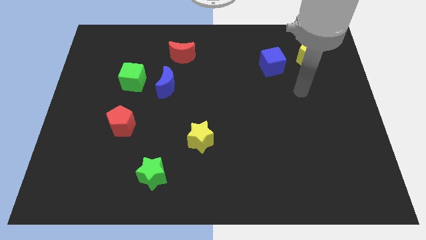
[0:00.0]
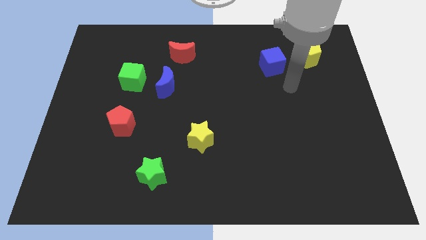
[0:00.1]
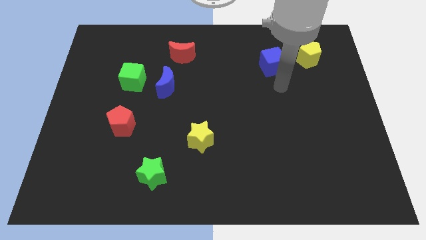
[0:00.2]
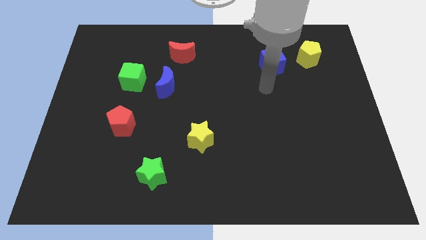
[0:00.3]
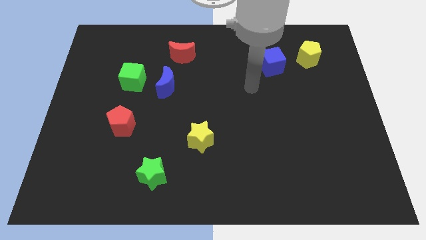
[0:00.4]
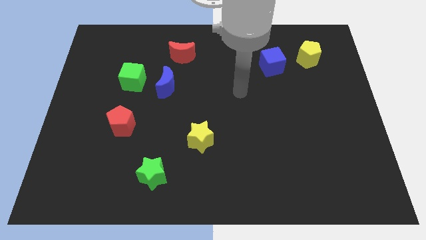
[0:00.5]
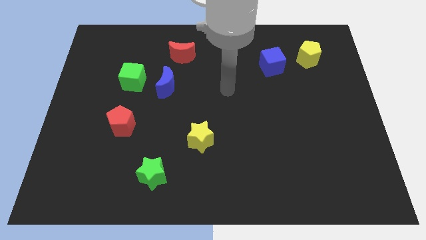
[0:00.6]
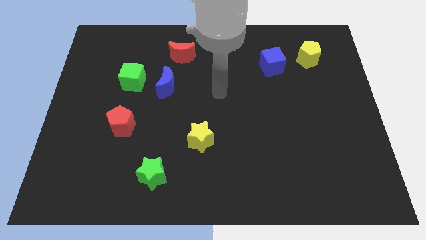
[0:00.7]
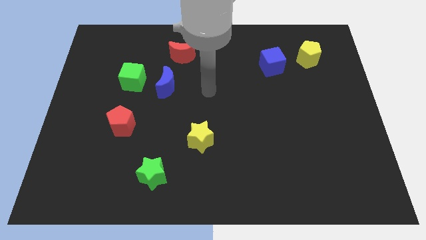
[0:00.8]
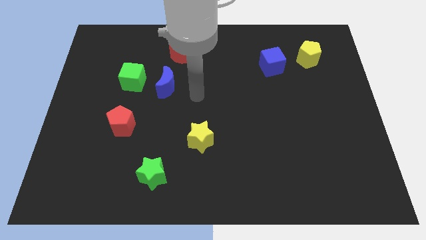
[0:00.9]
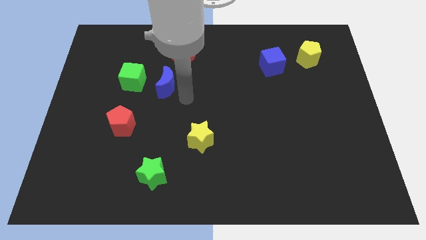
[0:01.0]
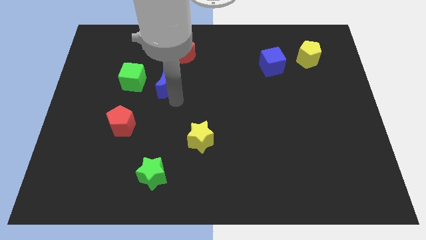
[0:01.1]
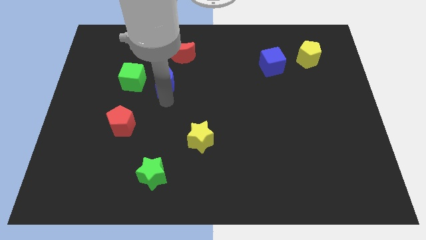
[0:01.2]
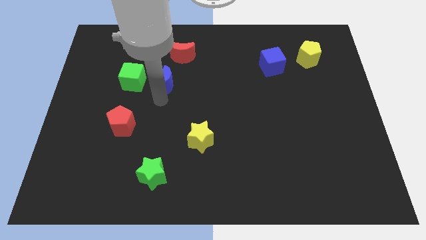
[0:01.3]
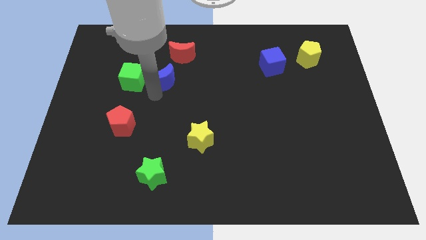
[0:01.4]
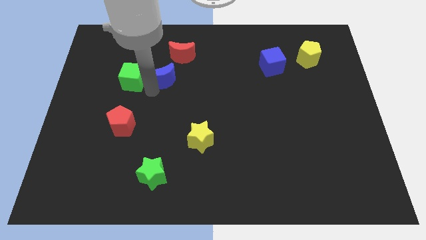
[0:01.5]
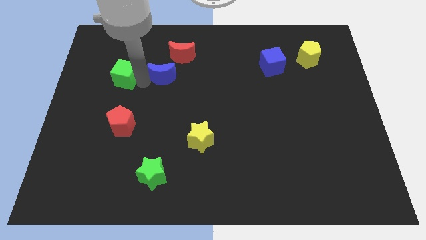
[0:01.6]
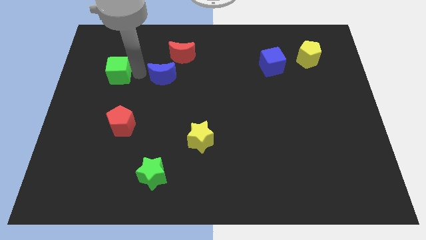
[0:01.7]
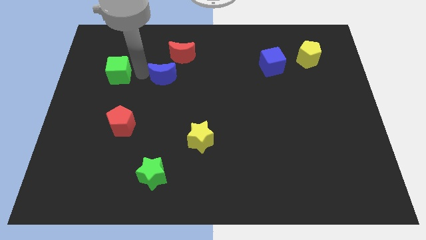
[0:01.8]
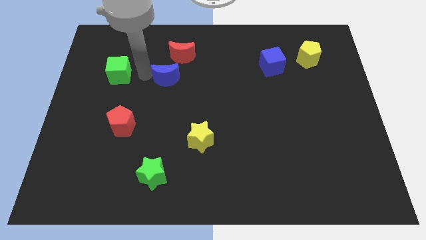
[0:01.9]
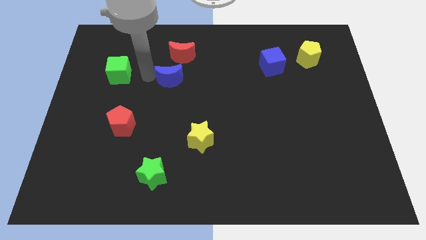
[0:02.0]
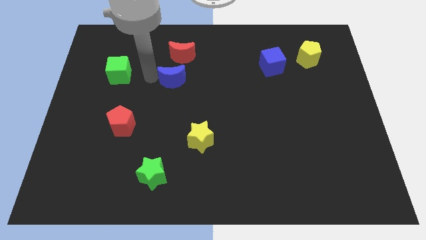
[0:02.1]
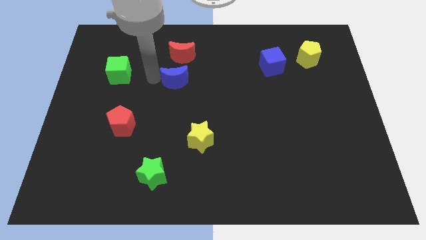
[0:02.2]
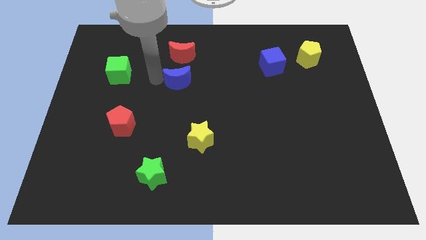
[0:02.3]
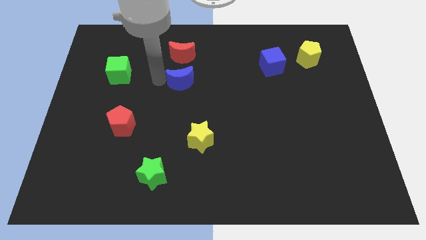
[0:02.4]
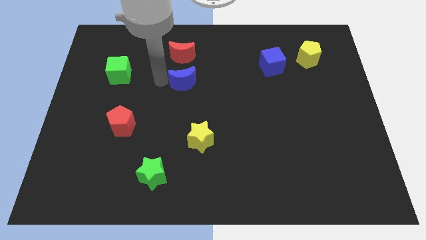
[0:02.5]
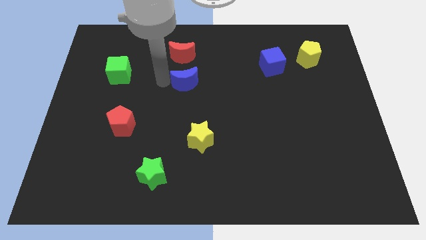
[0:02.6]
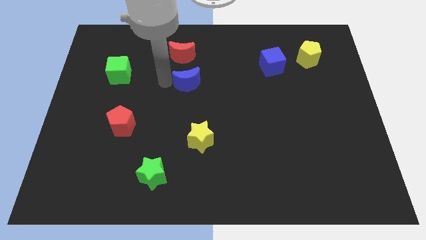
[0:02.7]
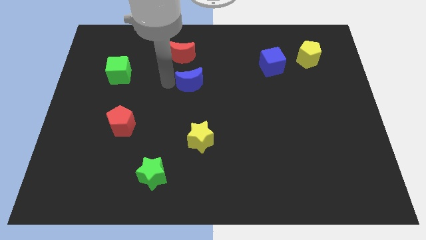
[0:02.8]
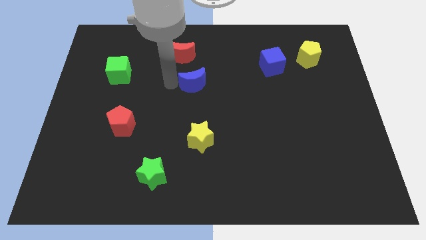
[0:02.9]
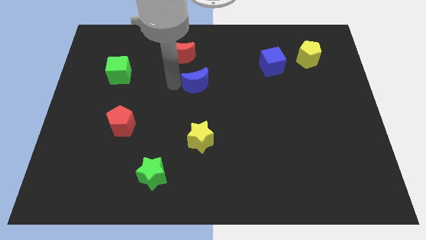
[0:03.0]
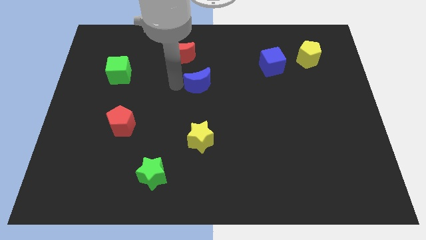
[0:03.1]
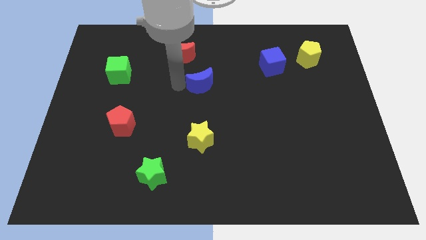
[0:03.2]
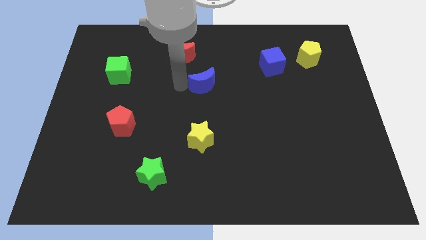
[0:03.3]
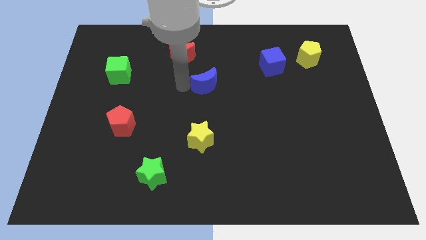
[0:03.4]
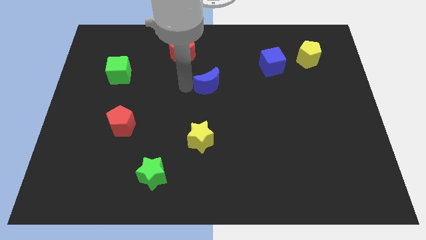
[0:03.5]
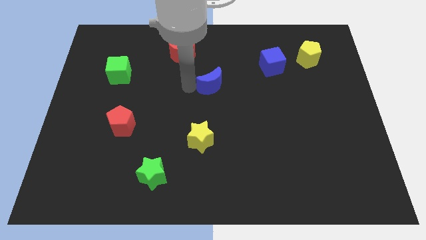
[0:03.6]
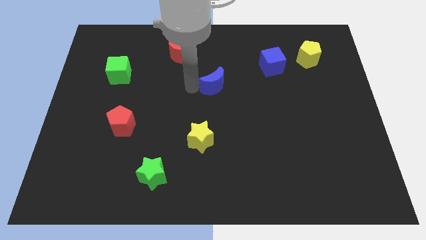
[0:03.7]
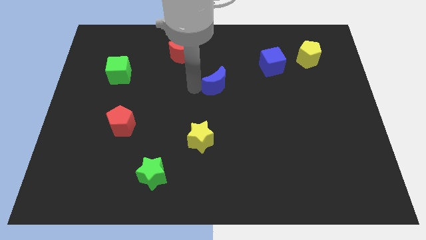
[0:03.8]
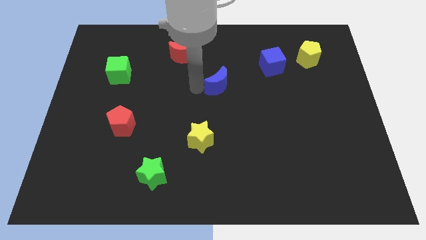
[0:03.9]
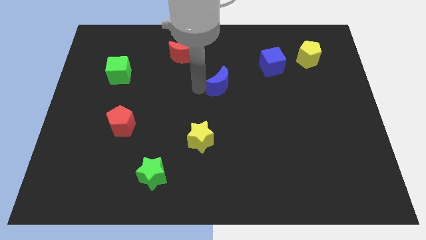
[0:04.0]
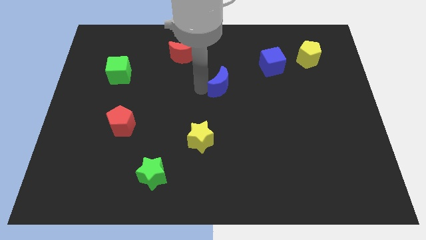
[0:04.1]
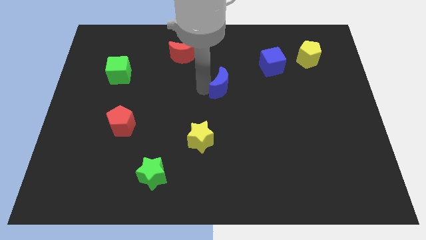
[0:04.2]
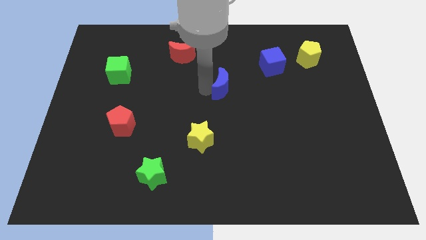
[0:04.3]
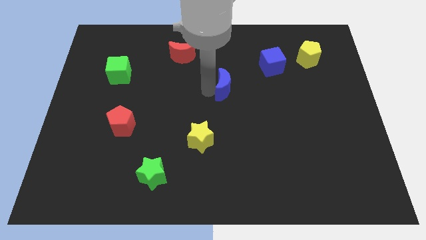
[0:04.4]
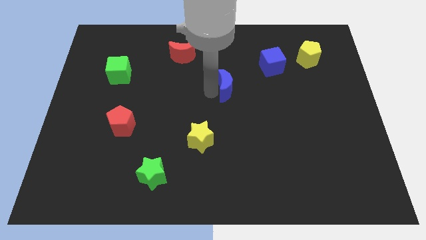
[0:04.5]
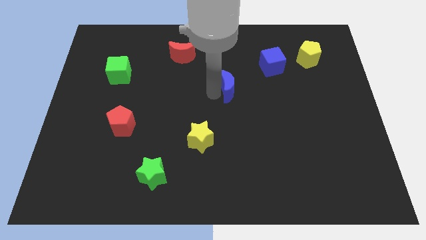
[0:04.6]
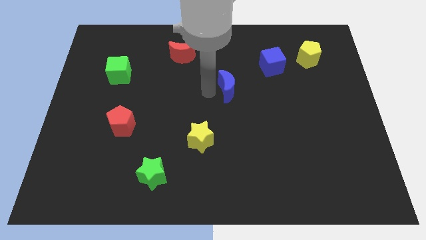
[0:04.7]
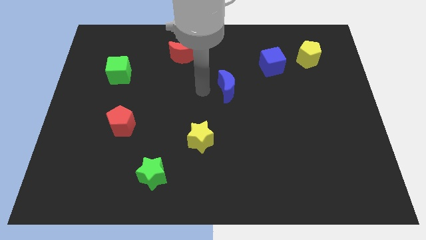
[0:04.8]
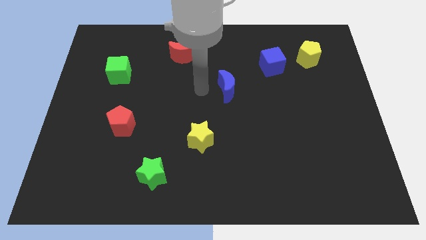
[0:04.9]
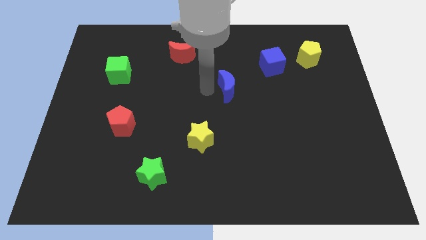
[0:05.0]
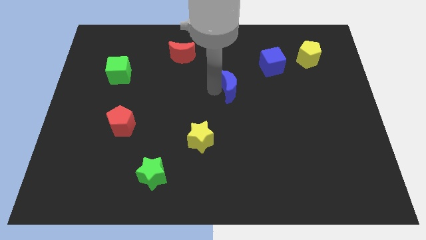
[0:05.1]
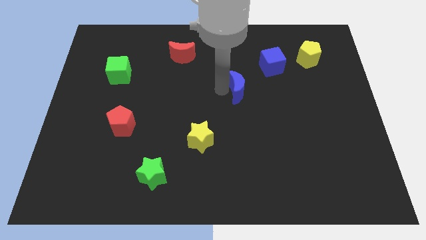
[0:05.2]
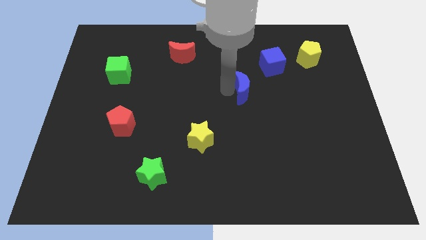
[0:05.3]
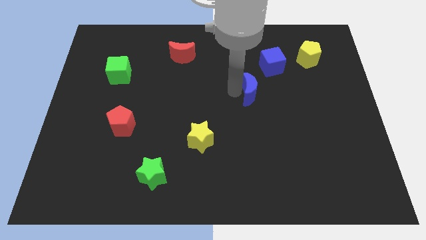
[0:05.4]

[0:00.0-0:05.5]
push the blue moon to the right

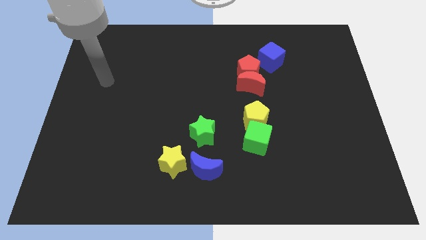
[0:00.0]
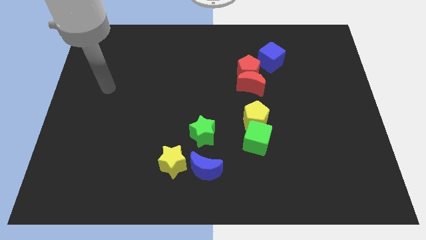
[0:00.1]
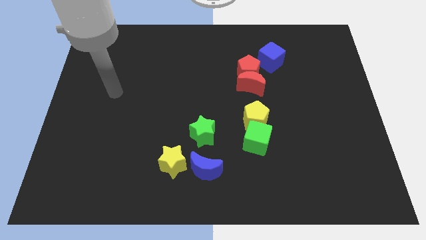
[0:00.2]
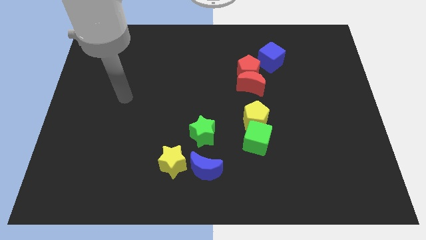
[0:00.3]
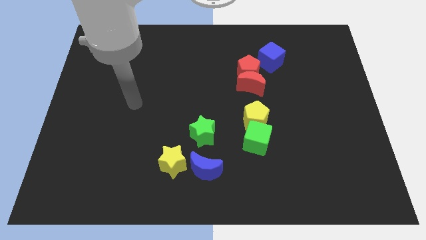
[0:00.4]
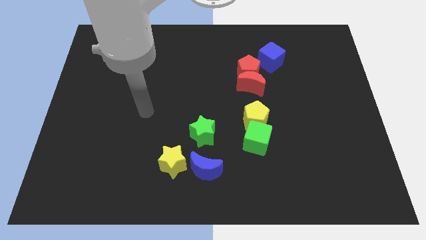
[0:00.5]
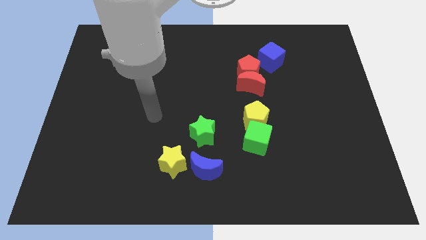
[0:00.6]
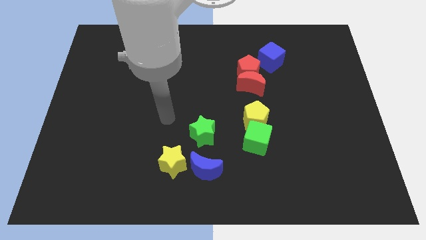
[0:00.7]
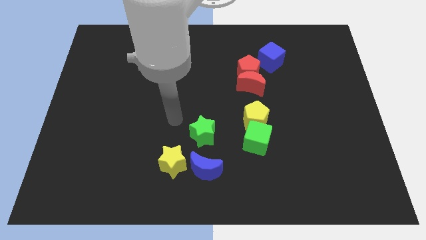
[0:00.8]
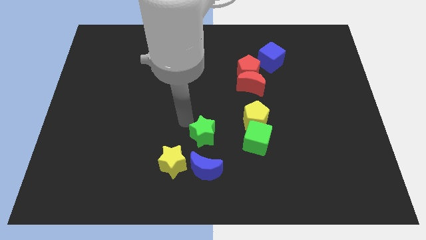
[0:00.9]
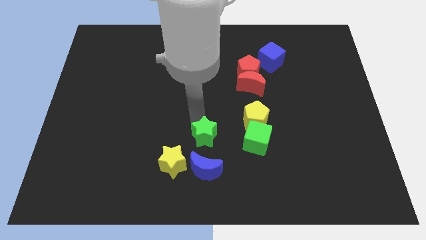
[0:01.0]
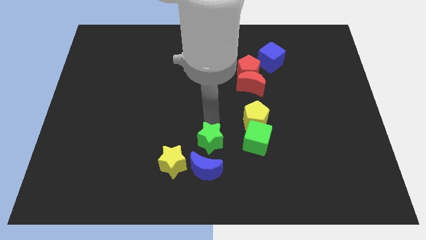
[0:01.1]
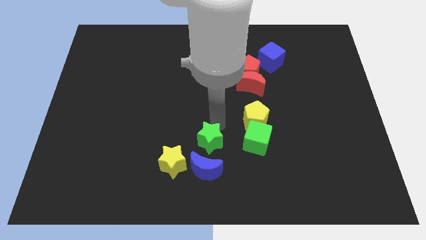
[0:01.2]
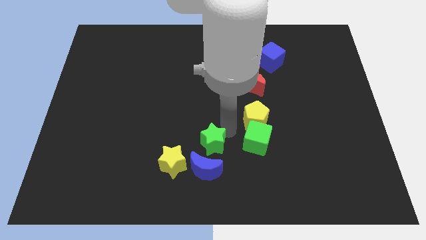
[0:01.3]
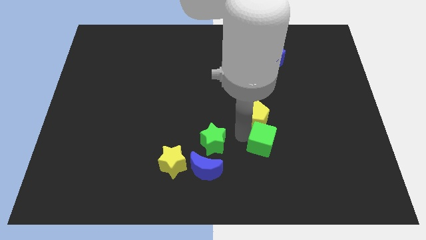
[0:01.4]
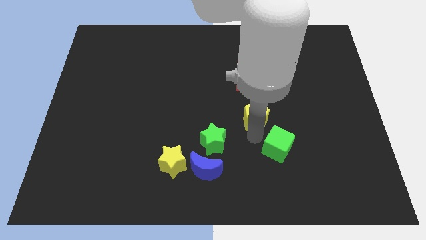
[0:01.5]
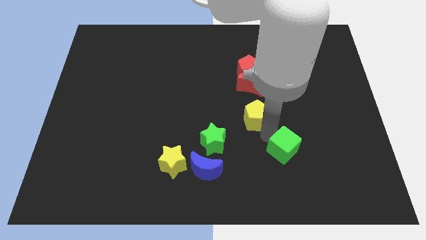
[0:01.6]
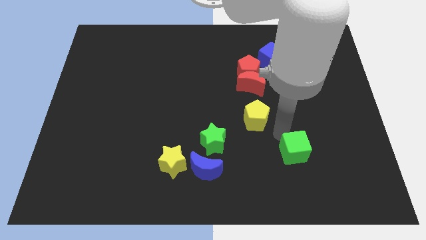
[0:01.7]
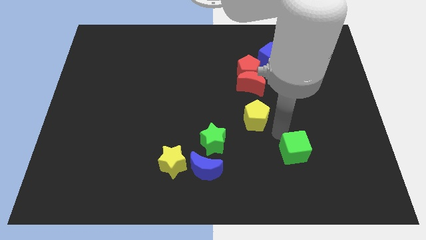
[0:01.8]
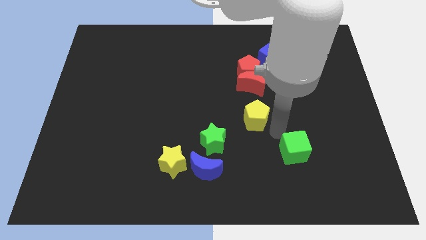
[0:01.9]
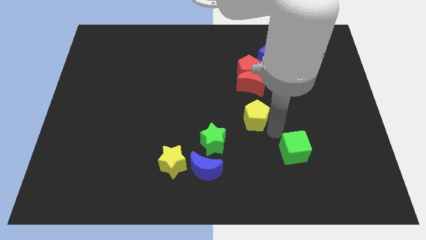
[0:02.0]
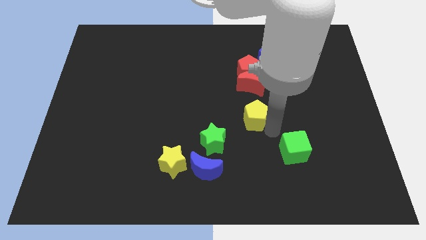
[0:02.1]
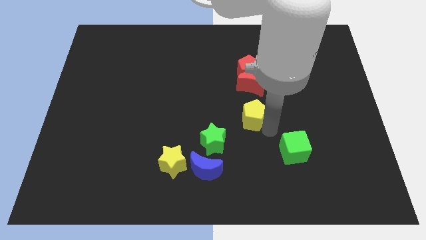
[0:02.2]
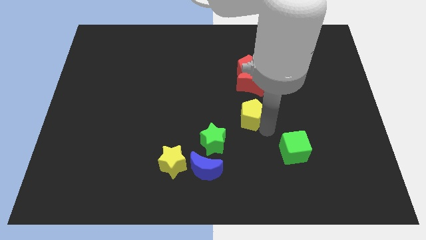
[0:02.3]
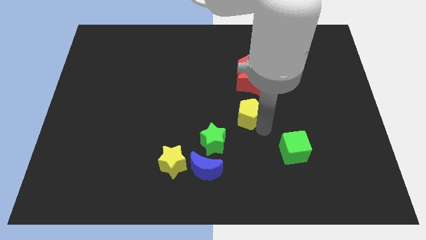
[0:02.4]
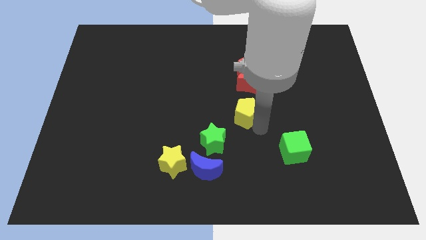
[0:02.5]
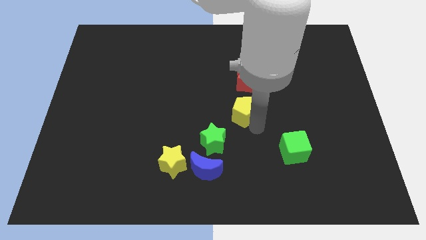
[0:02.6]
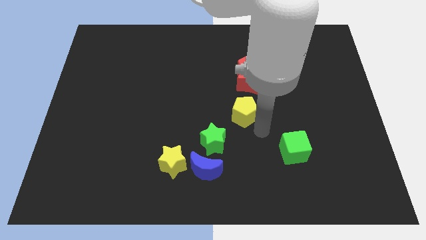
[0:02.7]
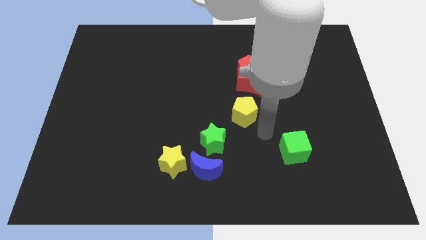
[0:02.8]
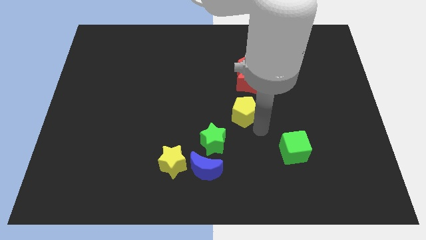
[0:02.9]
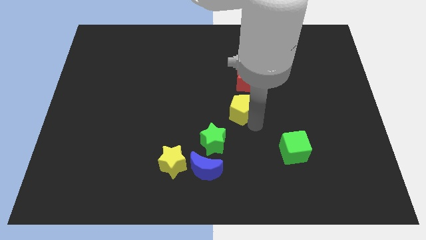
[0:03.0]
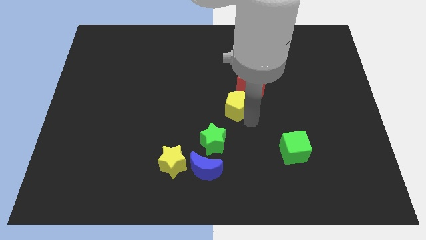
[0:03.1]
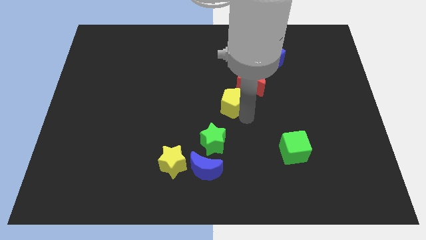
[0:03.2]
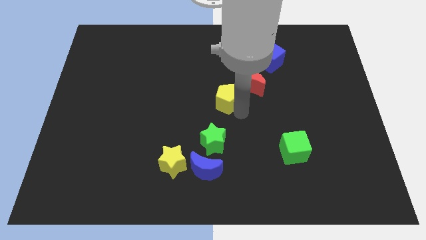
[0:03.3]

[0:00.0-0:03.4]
push the yellow pentagon a little up and then to the left
